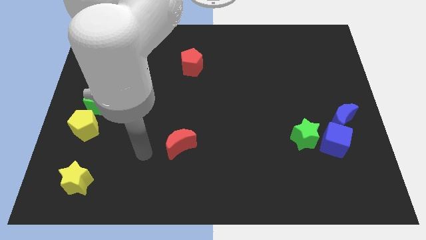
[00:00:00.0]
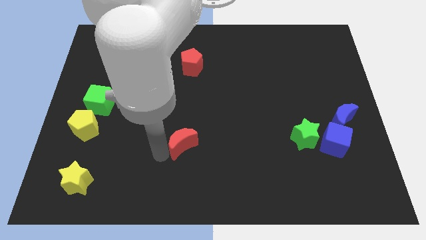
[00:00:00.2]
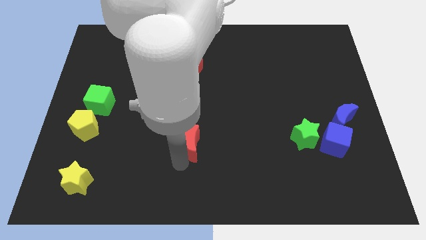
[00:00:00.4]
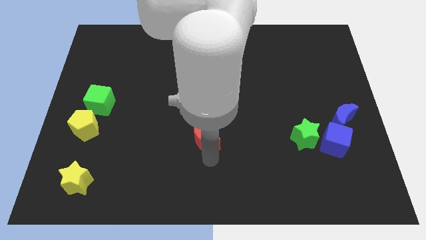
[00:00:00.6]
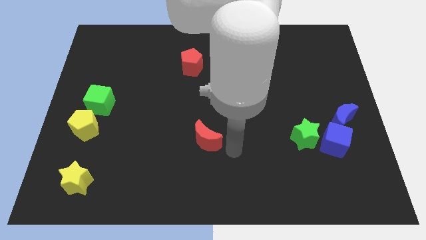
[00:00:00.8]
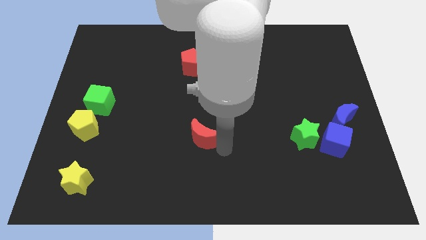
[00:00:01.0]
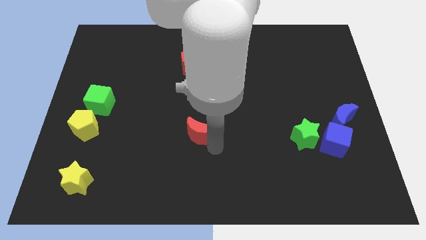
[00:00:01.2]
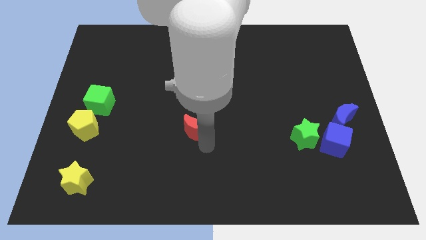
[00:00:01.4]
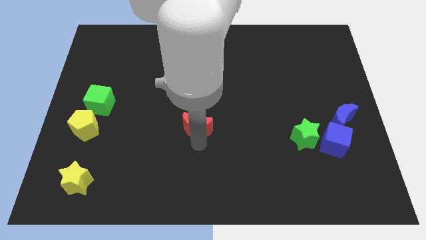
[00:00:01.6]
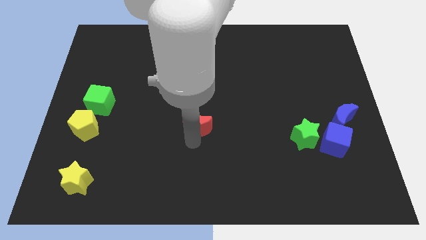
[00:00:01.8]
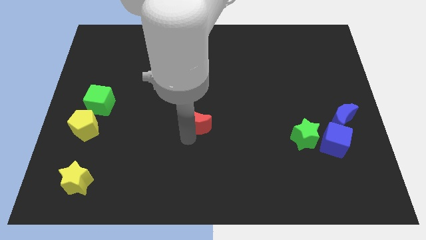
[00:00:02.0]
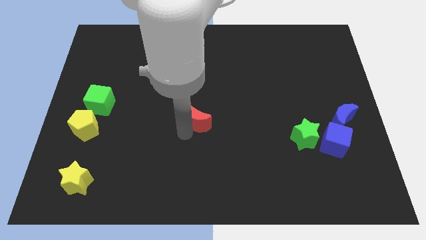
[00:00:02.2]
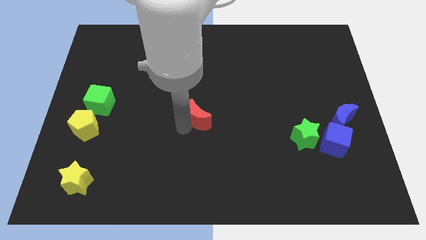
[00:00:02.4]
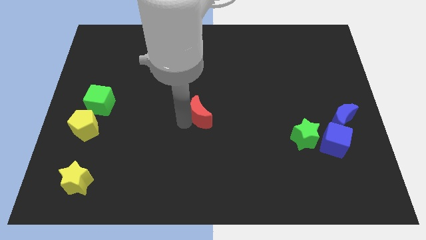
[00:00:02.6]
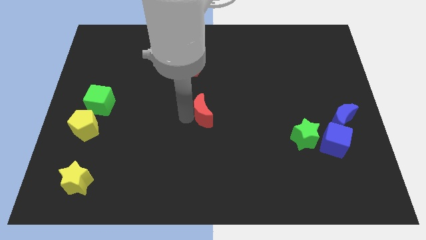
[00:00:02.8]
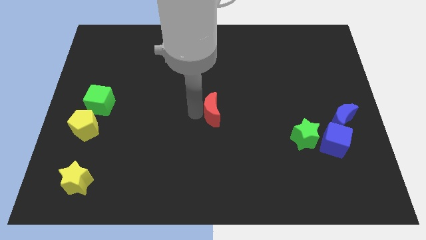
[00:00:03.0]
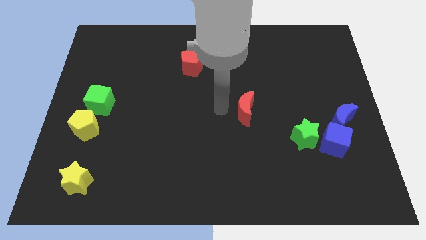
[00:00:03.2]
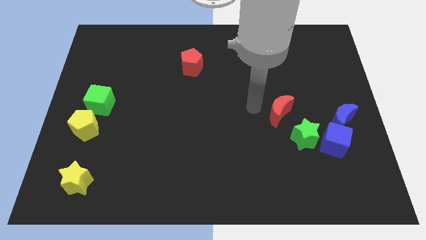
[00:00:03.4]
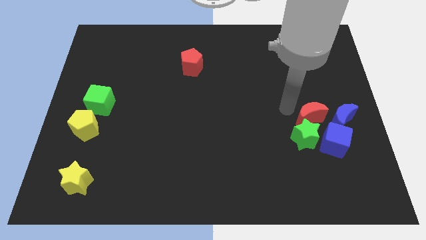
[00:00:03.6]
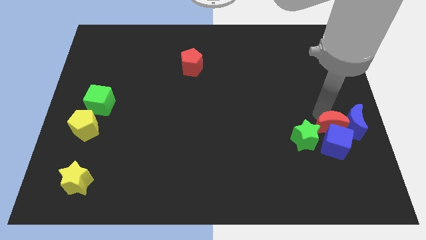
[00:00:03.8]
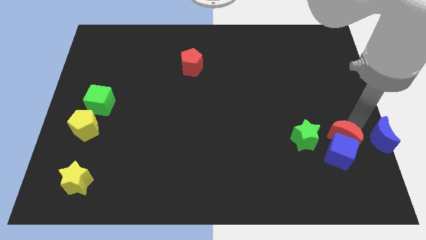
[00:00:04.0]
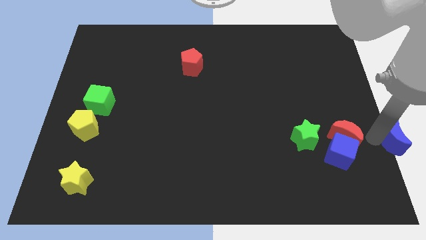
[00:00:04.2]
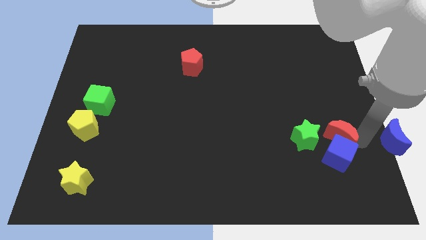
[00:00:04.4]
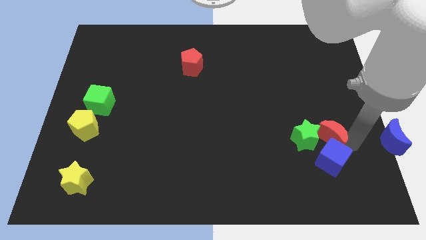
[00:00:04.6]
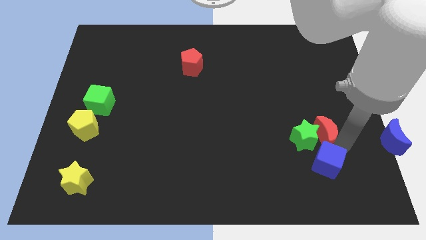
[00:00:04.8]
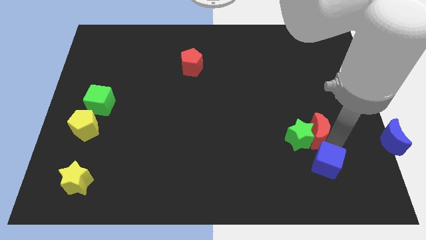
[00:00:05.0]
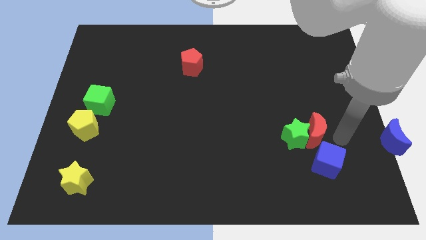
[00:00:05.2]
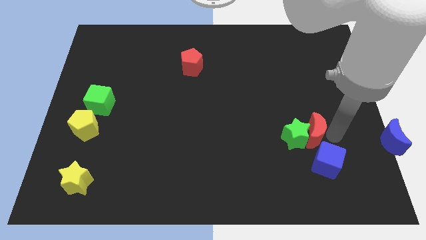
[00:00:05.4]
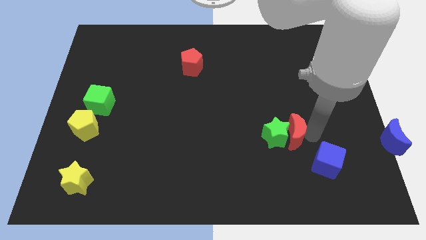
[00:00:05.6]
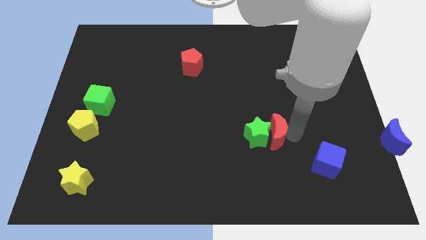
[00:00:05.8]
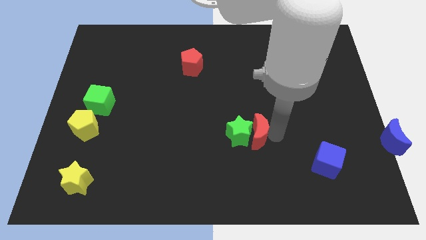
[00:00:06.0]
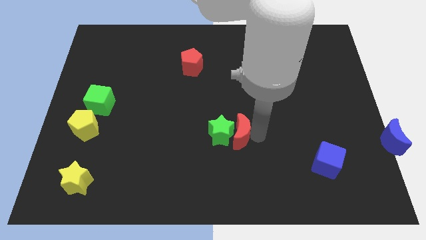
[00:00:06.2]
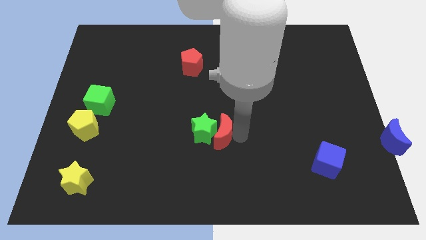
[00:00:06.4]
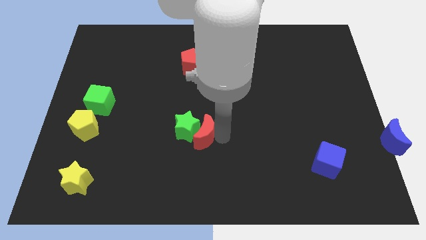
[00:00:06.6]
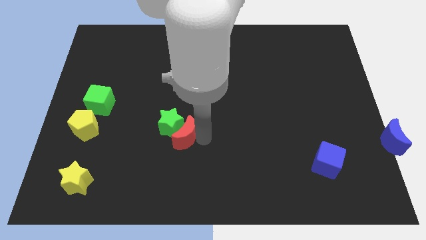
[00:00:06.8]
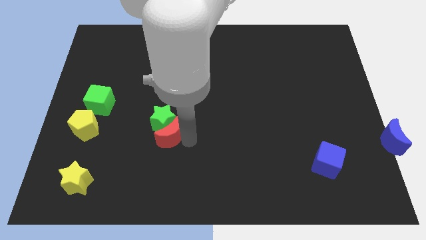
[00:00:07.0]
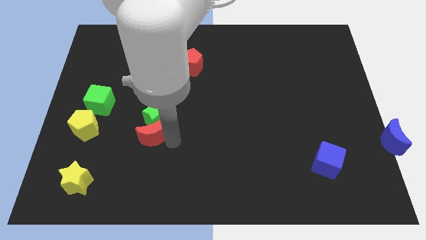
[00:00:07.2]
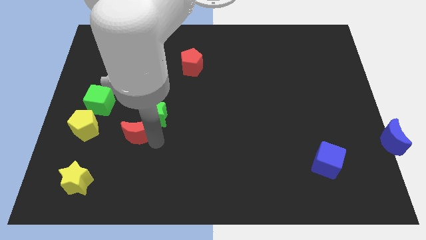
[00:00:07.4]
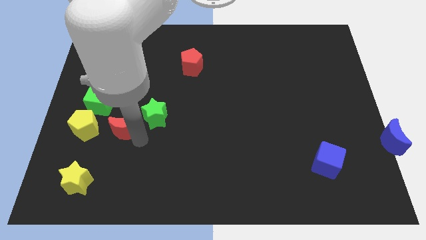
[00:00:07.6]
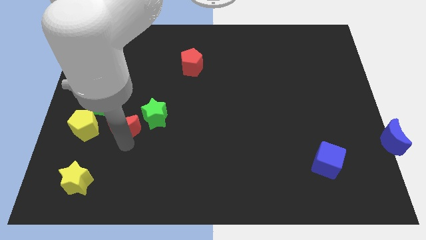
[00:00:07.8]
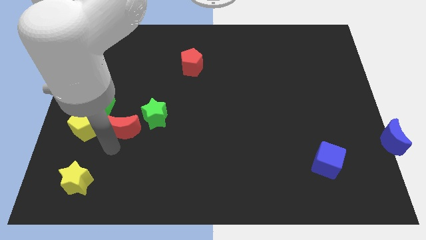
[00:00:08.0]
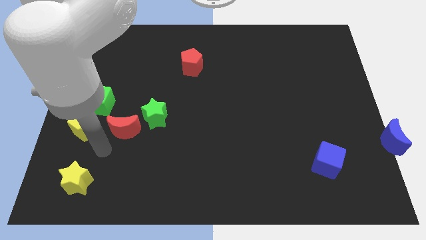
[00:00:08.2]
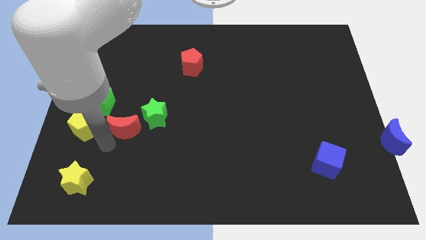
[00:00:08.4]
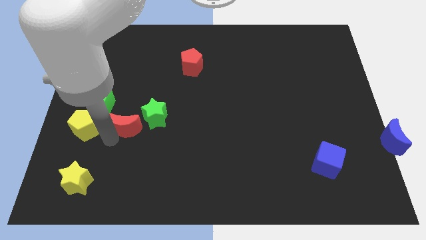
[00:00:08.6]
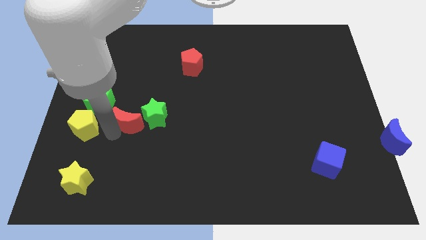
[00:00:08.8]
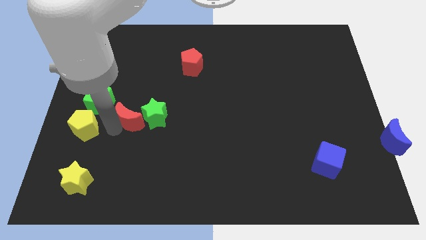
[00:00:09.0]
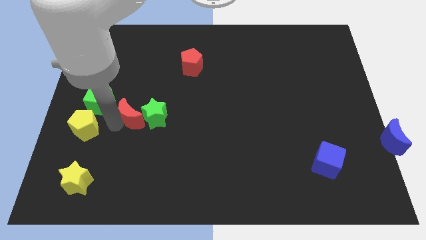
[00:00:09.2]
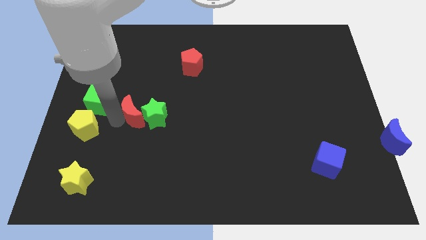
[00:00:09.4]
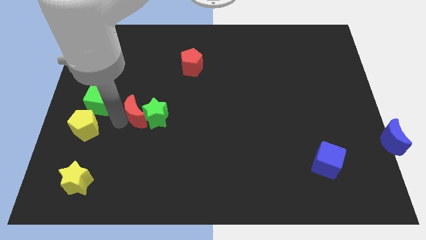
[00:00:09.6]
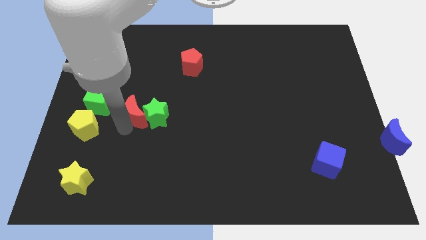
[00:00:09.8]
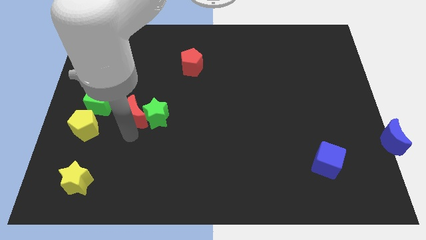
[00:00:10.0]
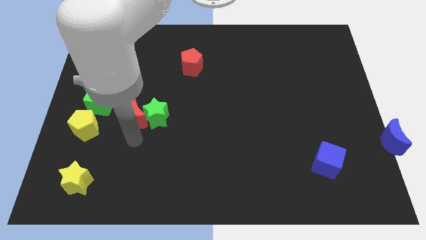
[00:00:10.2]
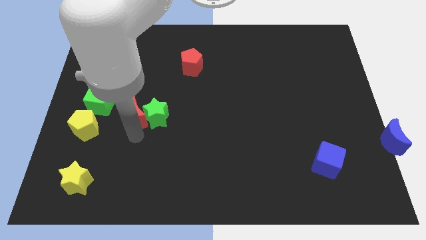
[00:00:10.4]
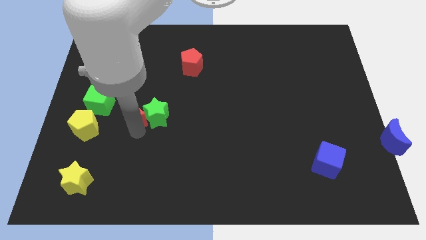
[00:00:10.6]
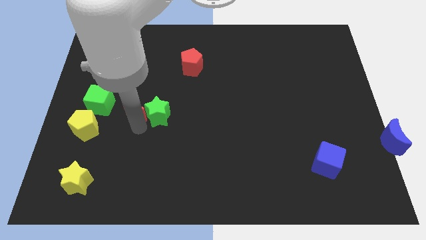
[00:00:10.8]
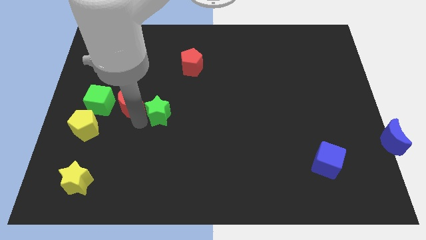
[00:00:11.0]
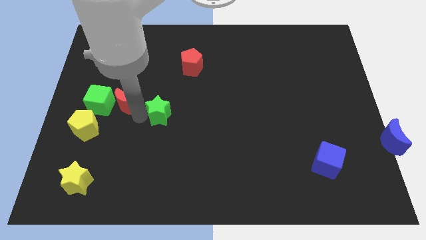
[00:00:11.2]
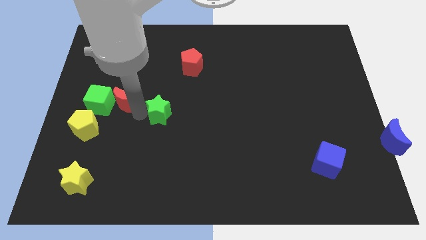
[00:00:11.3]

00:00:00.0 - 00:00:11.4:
move the red moon to the top right side of the green cube

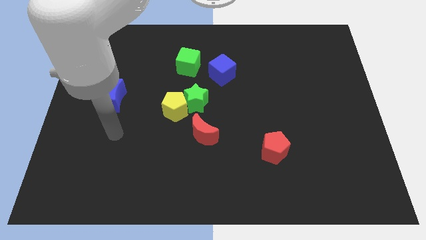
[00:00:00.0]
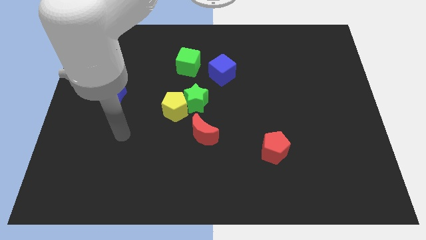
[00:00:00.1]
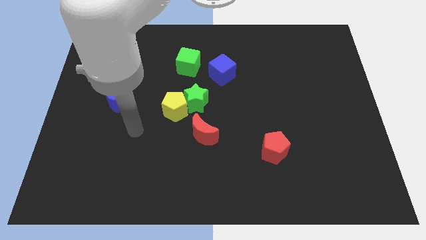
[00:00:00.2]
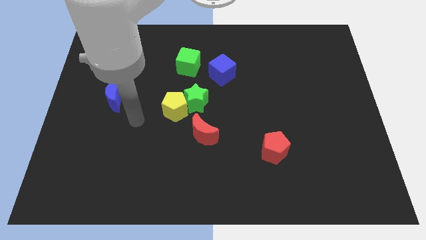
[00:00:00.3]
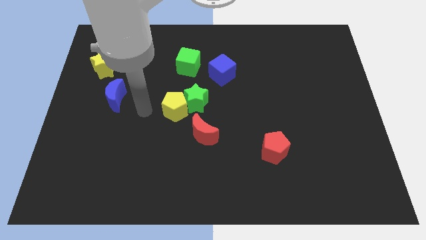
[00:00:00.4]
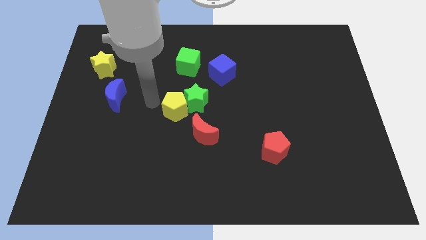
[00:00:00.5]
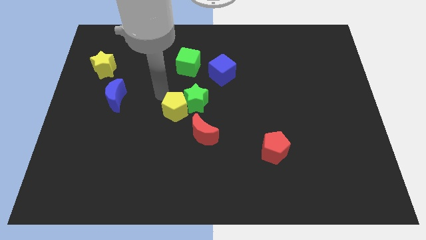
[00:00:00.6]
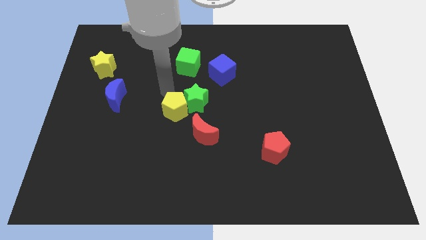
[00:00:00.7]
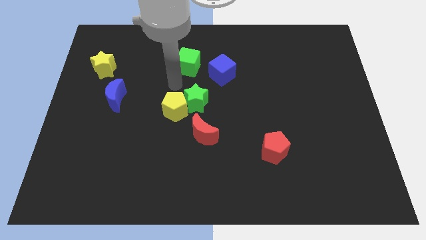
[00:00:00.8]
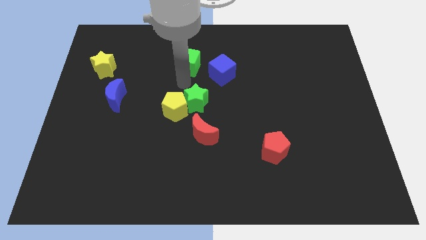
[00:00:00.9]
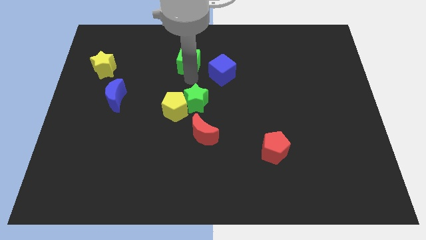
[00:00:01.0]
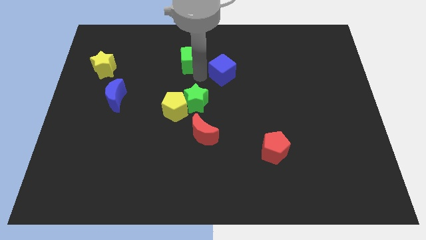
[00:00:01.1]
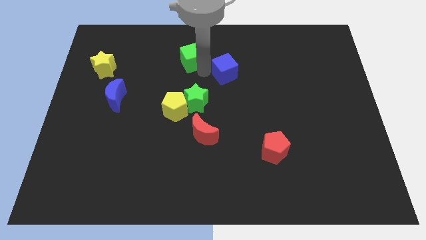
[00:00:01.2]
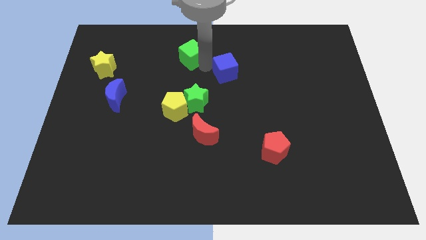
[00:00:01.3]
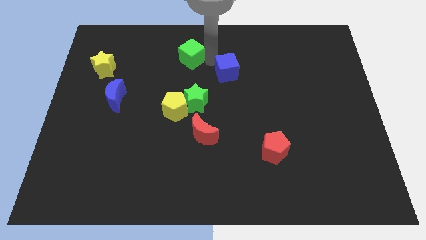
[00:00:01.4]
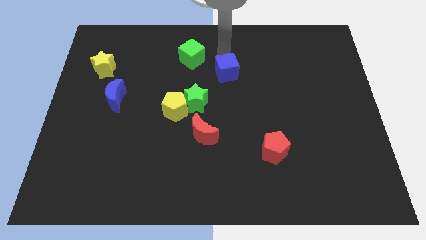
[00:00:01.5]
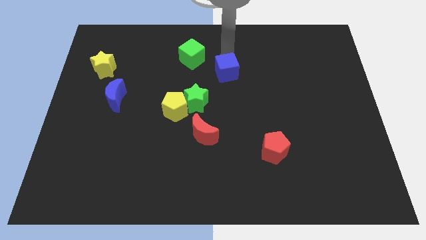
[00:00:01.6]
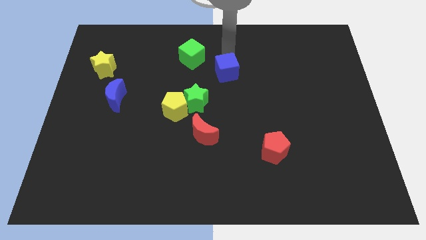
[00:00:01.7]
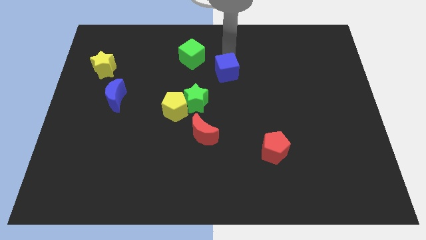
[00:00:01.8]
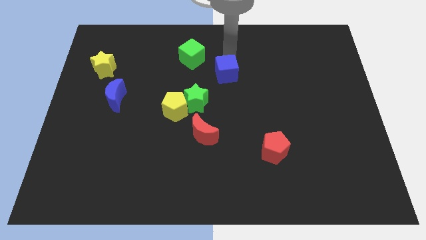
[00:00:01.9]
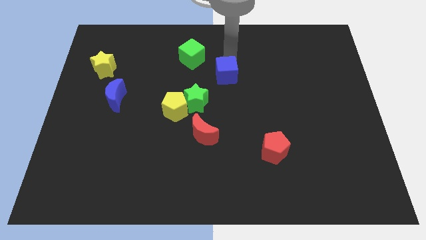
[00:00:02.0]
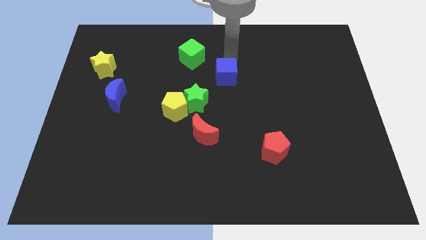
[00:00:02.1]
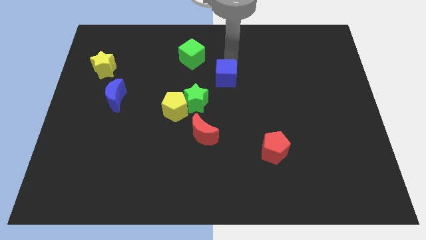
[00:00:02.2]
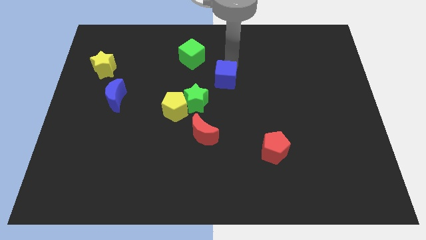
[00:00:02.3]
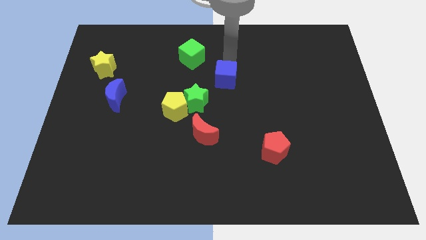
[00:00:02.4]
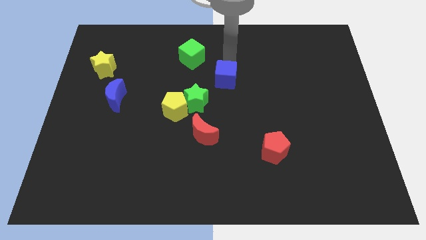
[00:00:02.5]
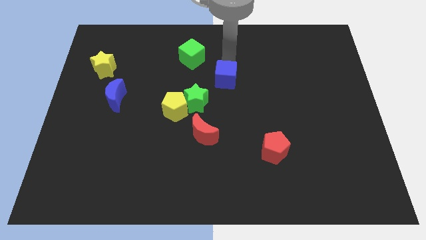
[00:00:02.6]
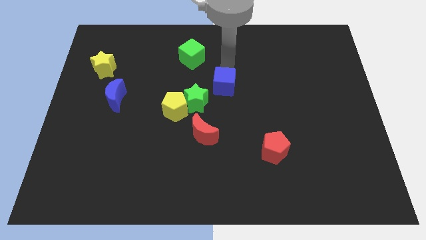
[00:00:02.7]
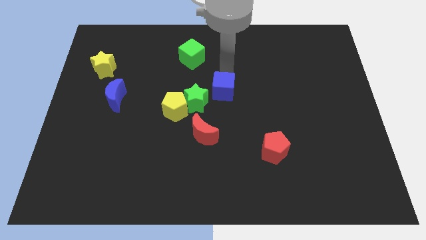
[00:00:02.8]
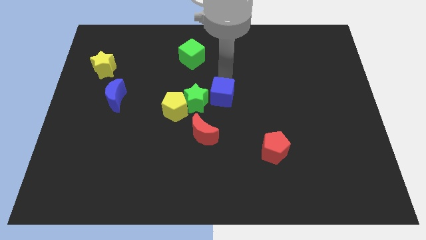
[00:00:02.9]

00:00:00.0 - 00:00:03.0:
move the blue cube to the right of the yellow pentagon
